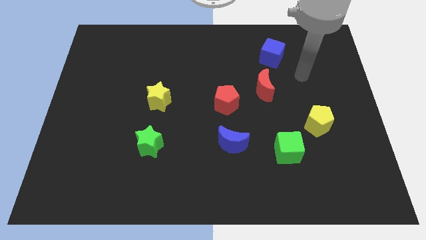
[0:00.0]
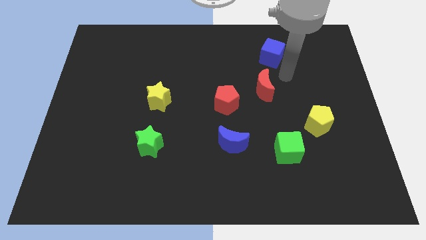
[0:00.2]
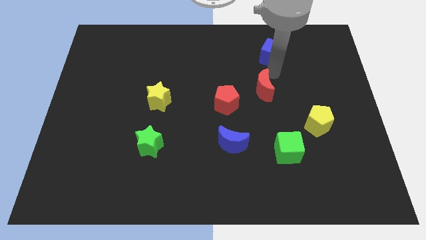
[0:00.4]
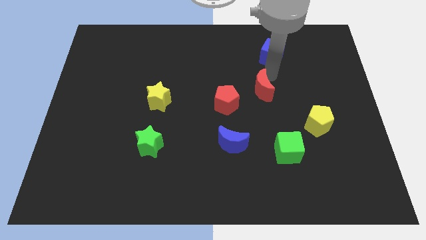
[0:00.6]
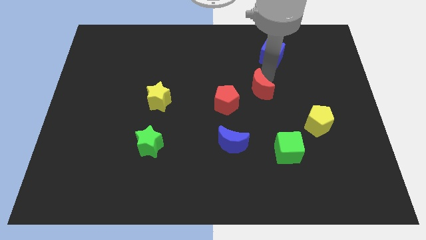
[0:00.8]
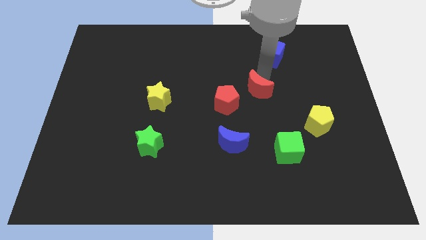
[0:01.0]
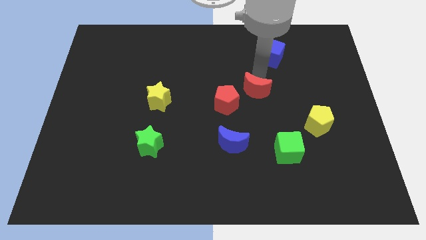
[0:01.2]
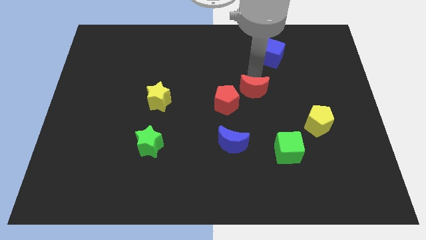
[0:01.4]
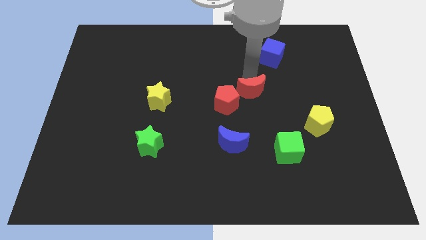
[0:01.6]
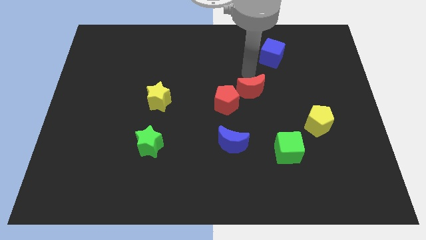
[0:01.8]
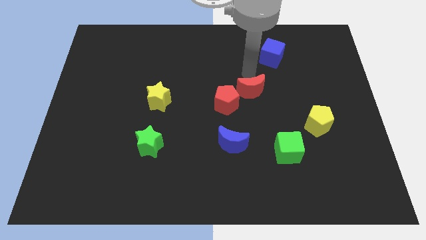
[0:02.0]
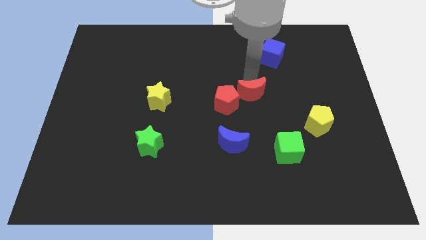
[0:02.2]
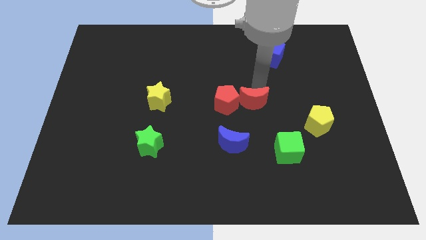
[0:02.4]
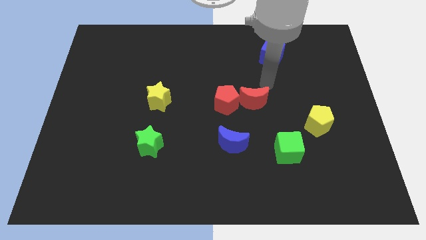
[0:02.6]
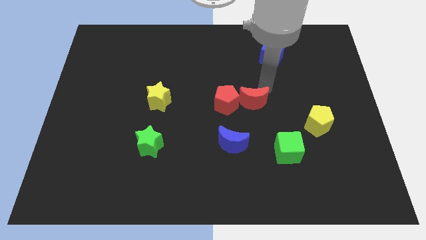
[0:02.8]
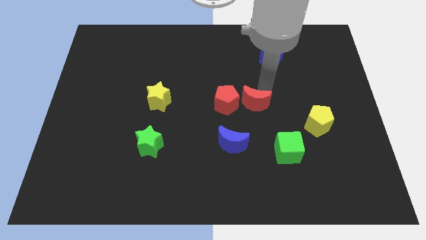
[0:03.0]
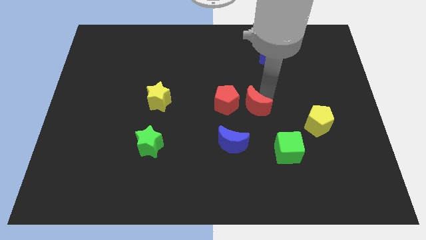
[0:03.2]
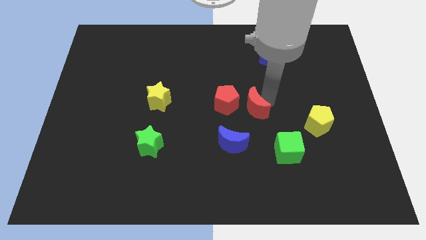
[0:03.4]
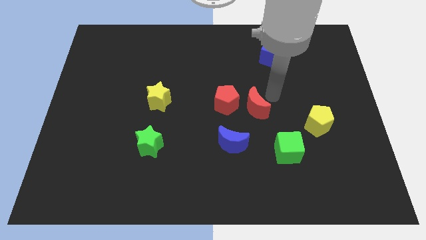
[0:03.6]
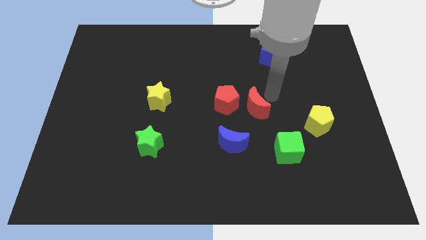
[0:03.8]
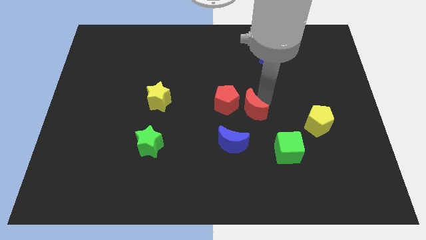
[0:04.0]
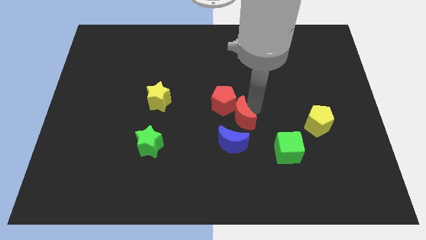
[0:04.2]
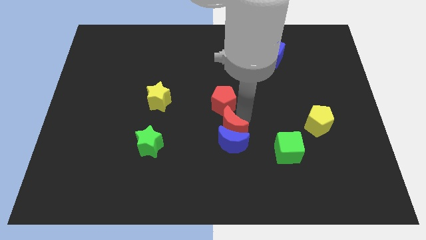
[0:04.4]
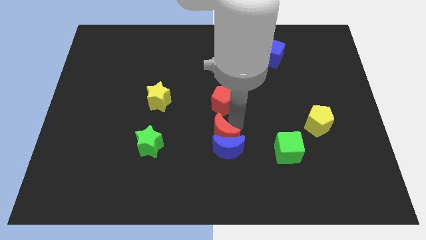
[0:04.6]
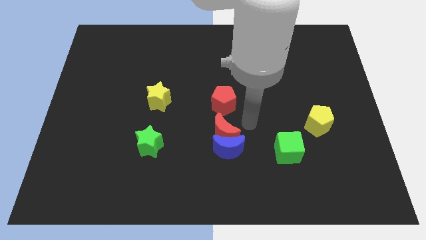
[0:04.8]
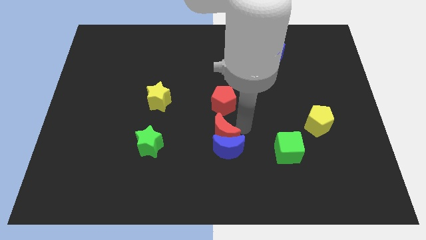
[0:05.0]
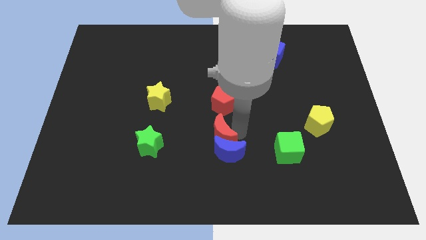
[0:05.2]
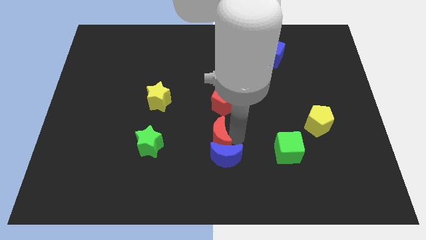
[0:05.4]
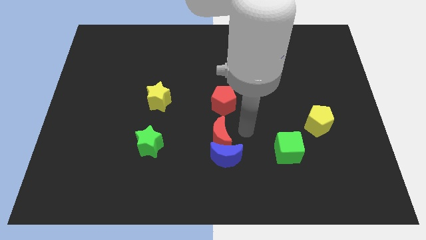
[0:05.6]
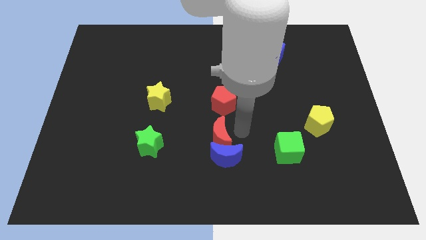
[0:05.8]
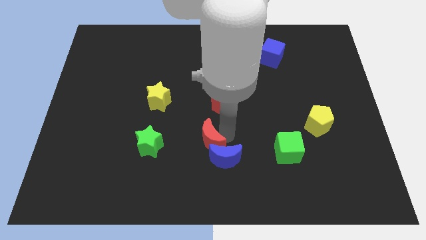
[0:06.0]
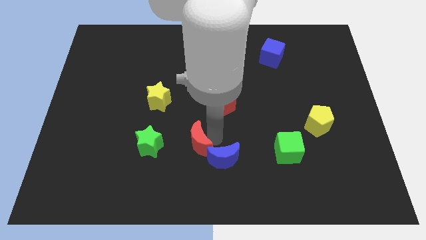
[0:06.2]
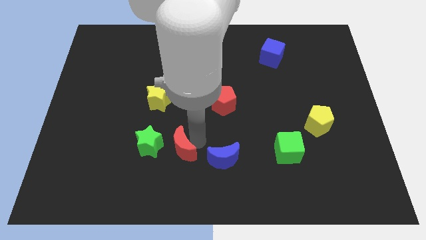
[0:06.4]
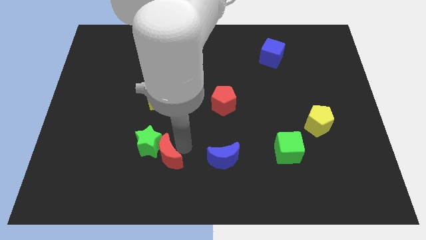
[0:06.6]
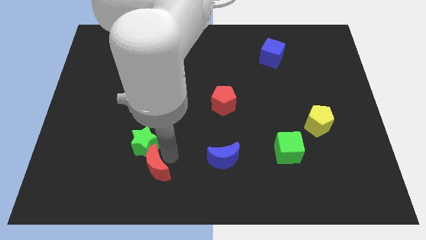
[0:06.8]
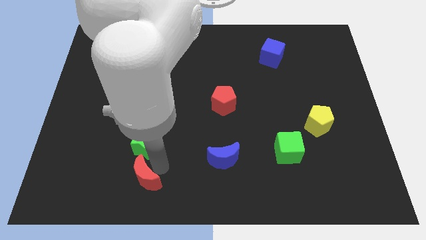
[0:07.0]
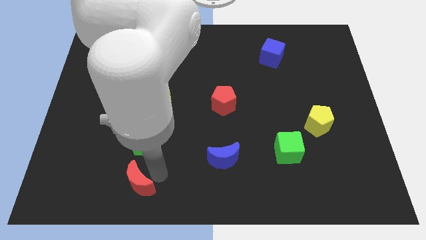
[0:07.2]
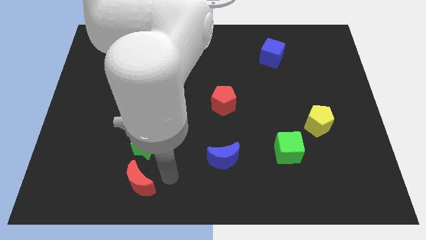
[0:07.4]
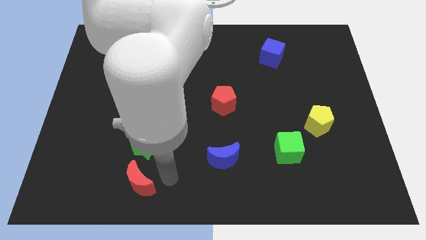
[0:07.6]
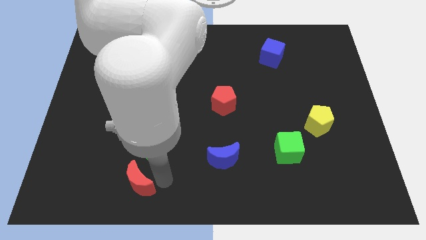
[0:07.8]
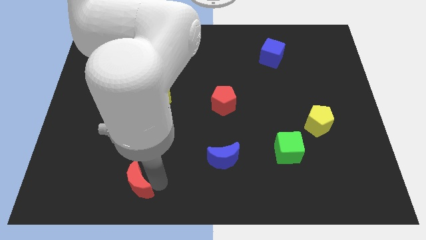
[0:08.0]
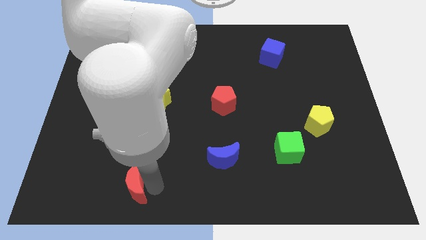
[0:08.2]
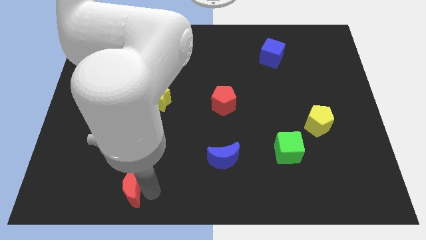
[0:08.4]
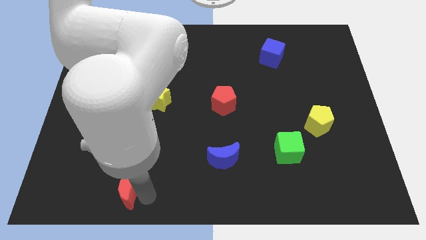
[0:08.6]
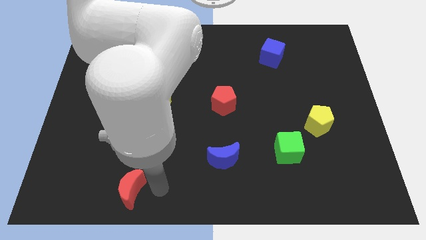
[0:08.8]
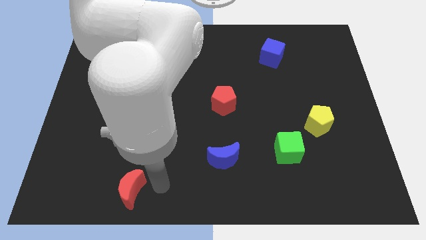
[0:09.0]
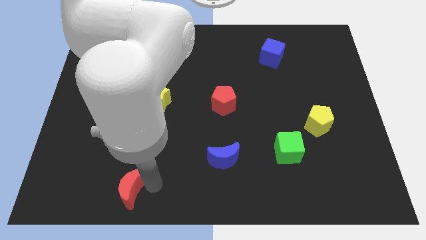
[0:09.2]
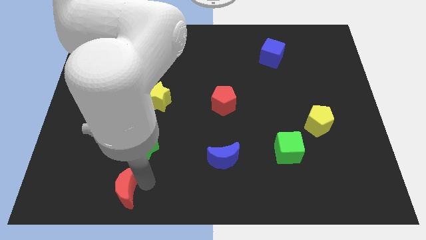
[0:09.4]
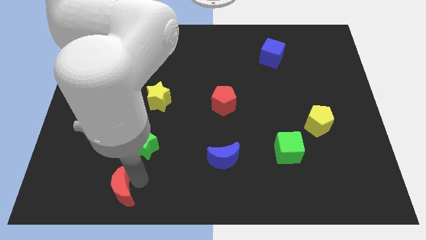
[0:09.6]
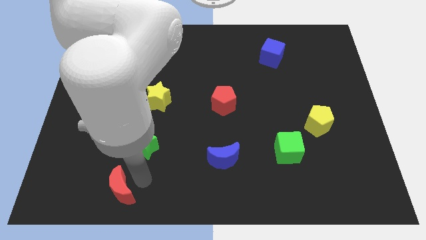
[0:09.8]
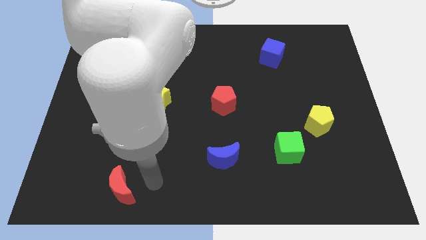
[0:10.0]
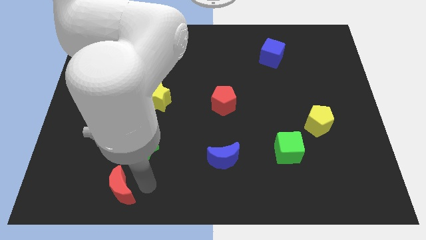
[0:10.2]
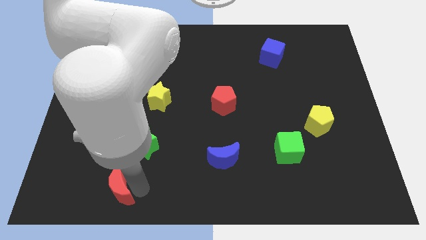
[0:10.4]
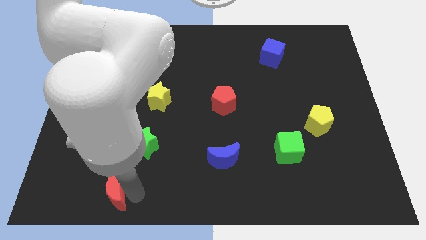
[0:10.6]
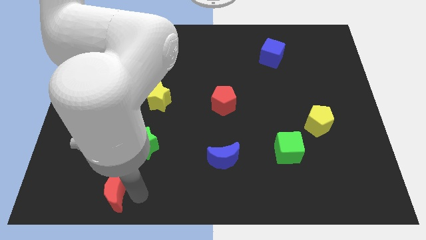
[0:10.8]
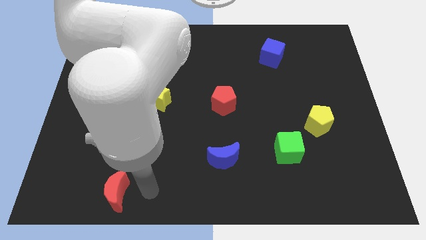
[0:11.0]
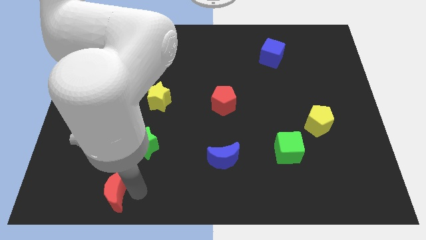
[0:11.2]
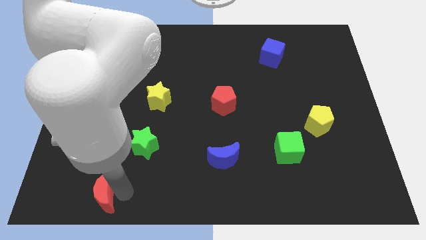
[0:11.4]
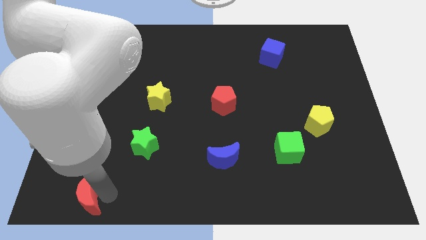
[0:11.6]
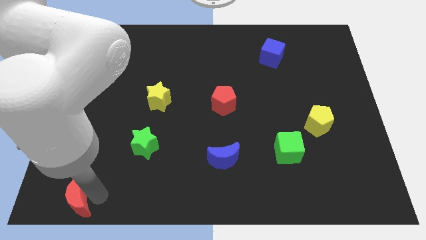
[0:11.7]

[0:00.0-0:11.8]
push the red moon to the bottom left corner

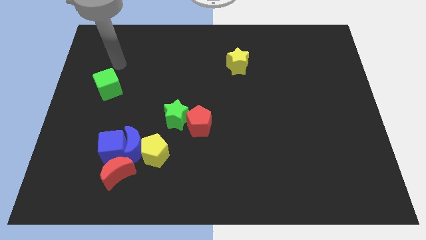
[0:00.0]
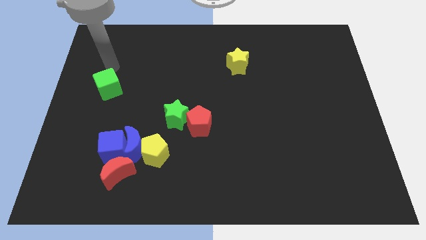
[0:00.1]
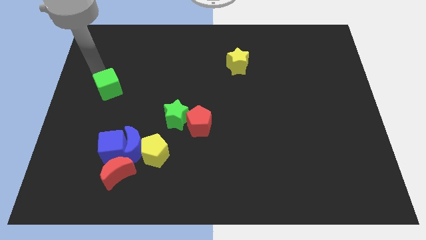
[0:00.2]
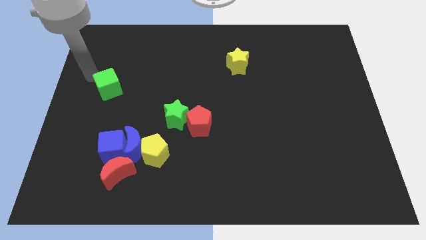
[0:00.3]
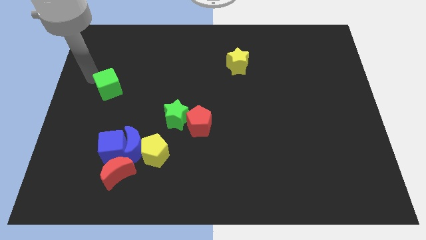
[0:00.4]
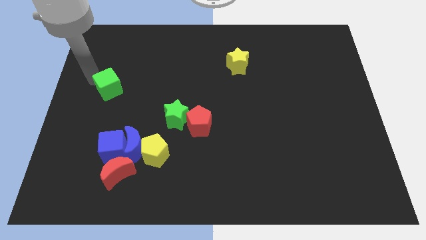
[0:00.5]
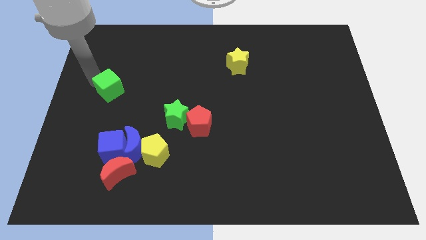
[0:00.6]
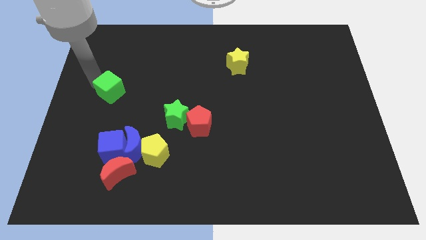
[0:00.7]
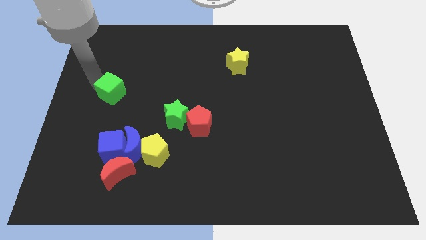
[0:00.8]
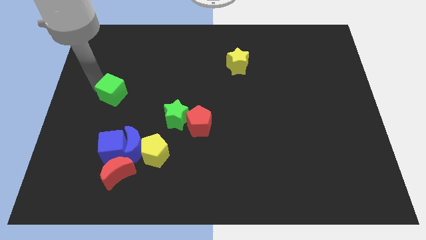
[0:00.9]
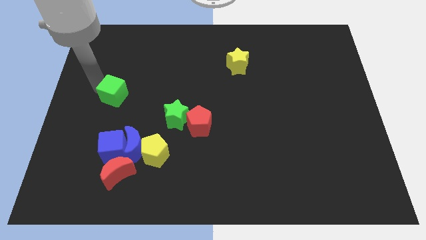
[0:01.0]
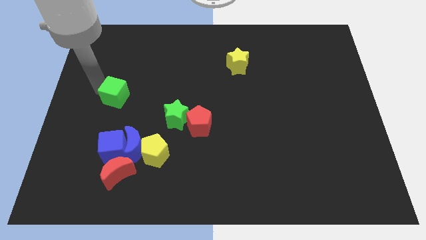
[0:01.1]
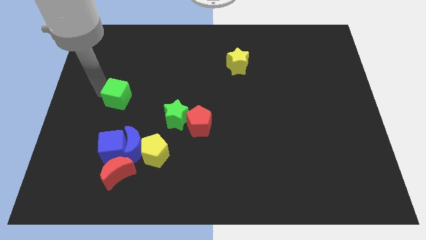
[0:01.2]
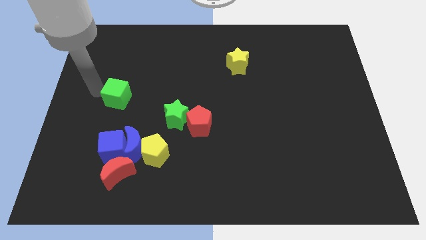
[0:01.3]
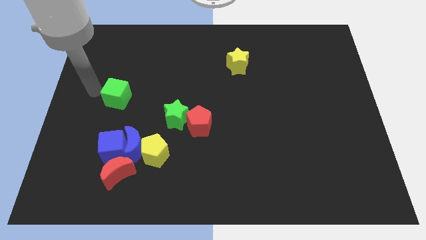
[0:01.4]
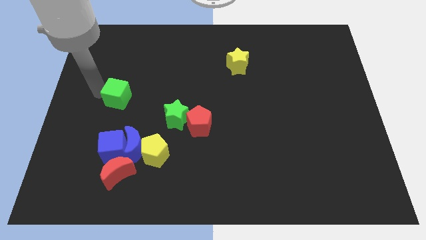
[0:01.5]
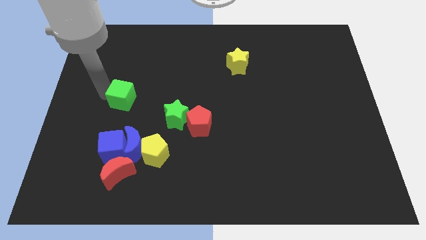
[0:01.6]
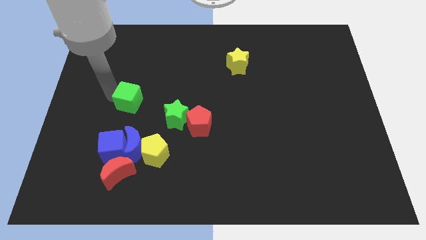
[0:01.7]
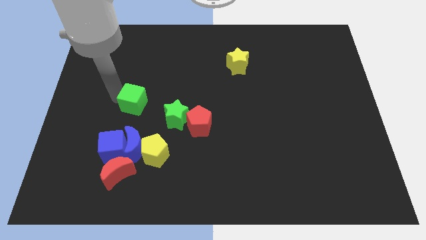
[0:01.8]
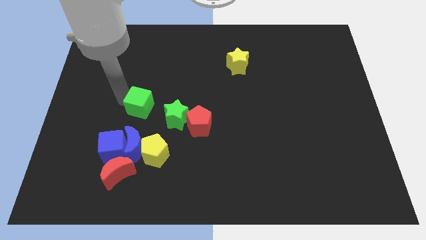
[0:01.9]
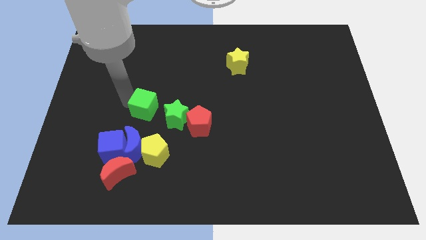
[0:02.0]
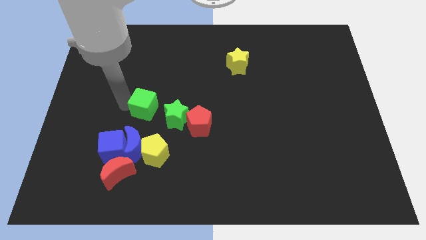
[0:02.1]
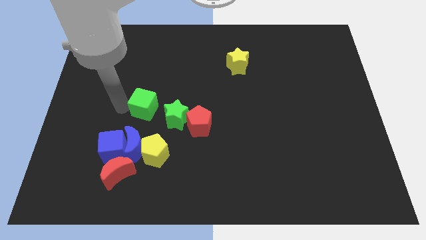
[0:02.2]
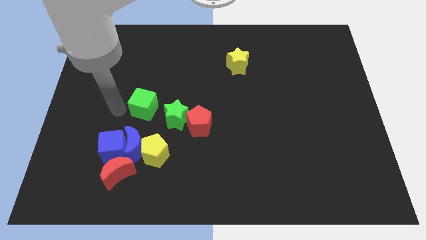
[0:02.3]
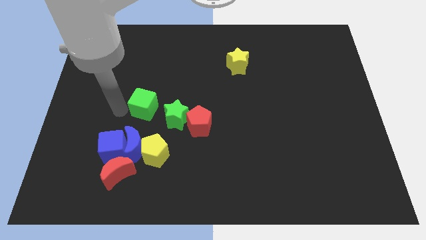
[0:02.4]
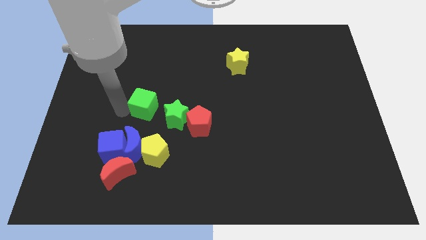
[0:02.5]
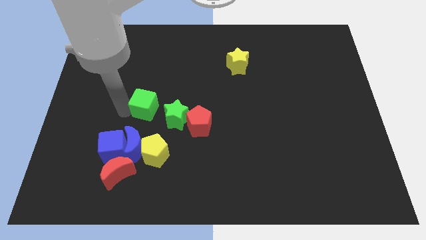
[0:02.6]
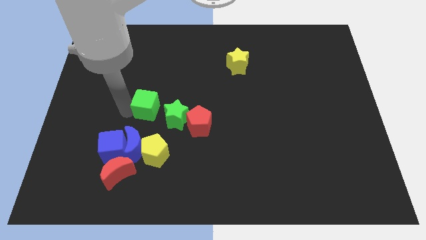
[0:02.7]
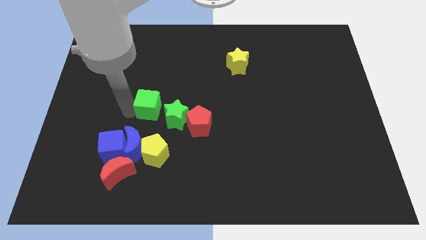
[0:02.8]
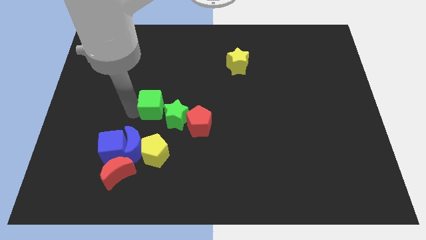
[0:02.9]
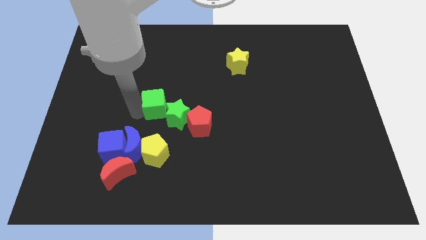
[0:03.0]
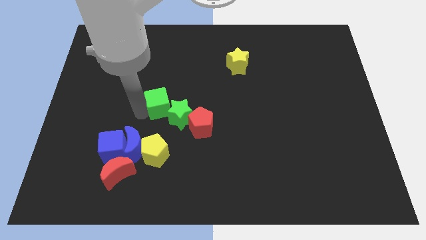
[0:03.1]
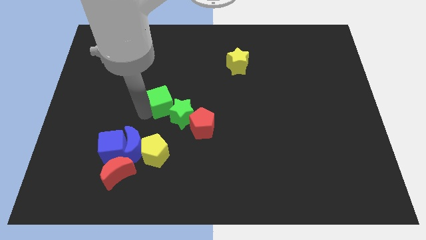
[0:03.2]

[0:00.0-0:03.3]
slide the green cube to the middle
